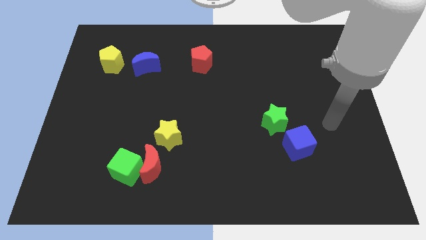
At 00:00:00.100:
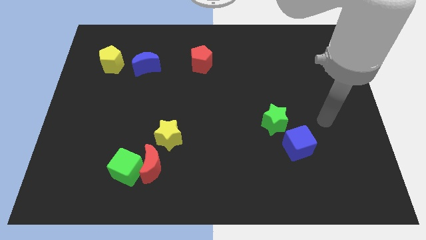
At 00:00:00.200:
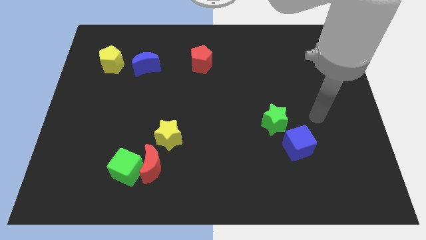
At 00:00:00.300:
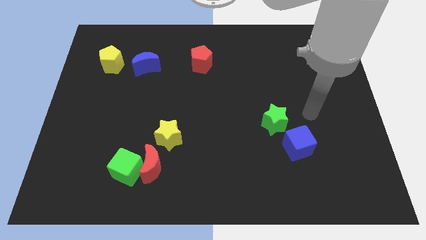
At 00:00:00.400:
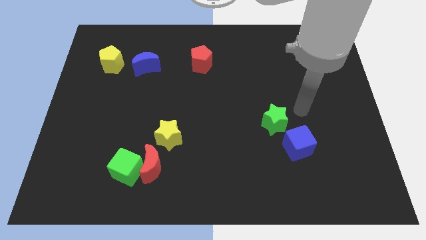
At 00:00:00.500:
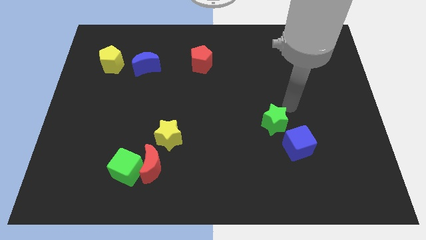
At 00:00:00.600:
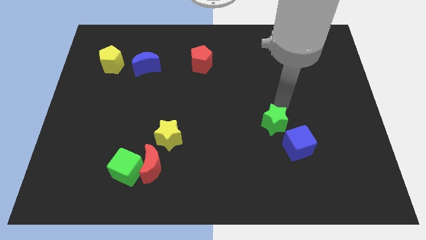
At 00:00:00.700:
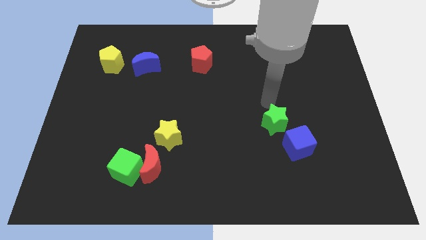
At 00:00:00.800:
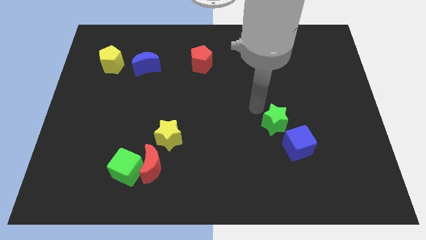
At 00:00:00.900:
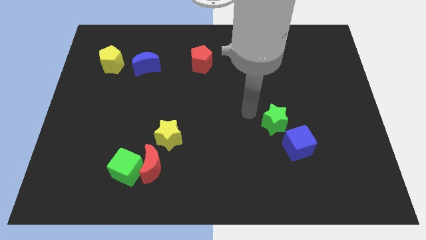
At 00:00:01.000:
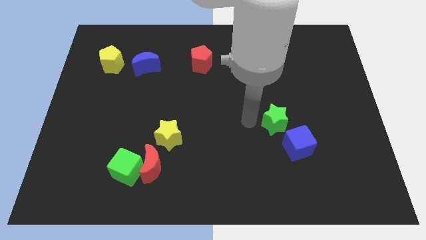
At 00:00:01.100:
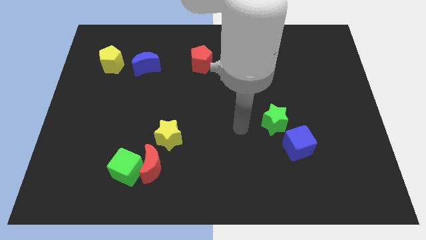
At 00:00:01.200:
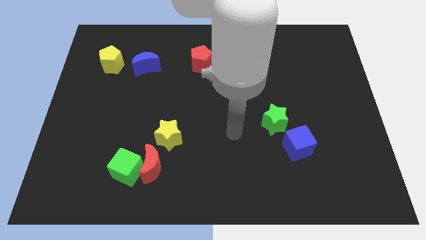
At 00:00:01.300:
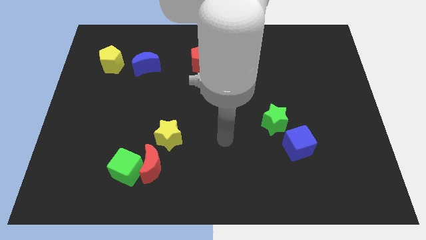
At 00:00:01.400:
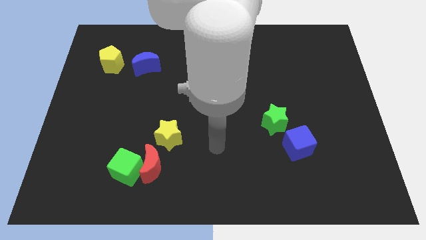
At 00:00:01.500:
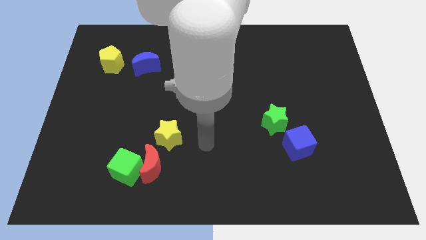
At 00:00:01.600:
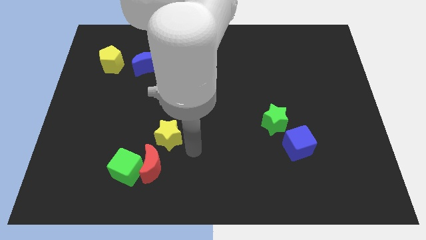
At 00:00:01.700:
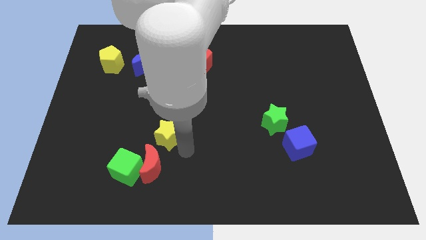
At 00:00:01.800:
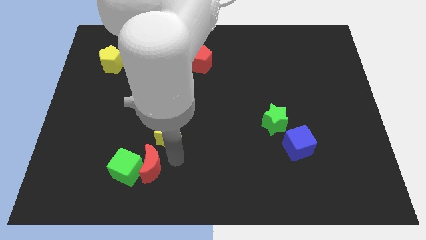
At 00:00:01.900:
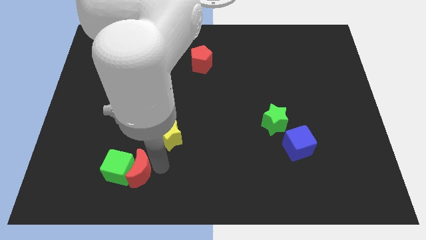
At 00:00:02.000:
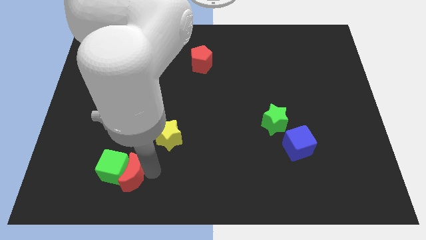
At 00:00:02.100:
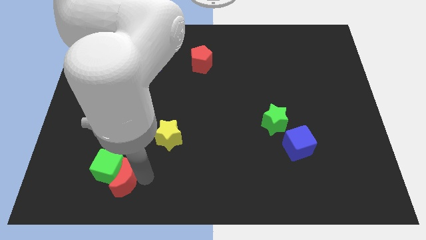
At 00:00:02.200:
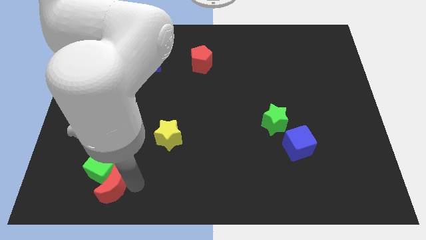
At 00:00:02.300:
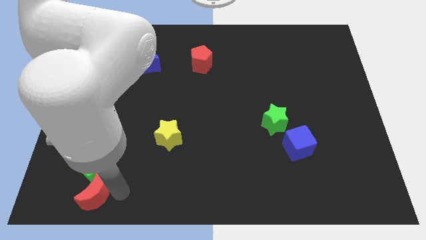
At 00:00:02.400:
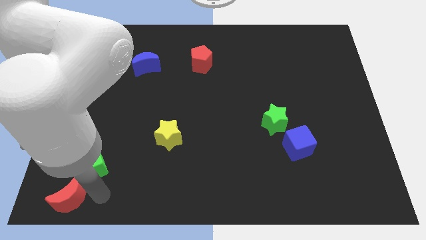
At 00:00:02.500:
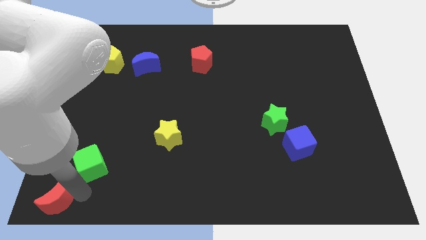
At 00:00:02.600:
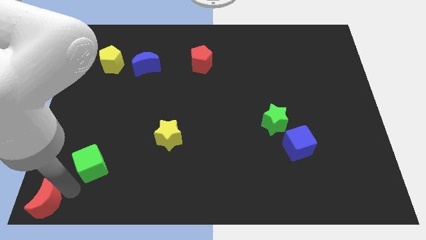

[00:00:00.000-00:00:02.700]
separate the green cube from the red moon

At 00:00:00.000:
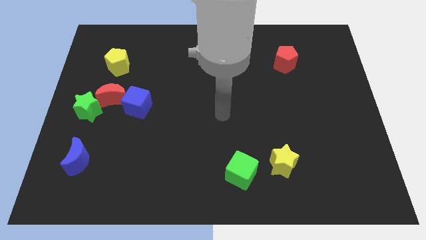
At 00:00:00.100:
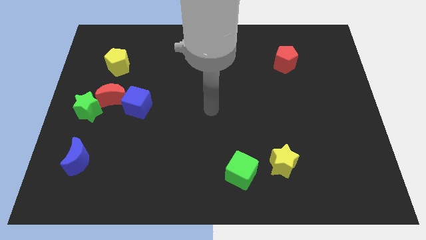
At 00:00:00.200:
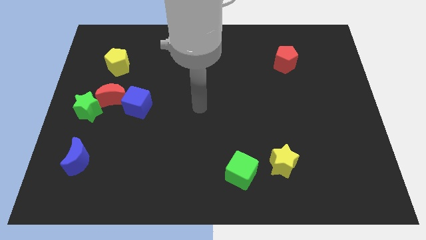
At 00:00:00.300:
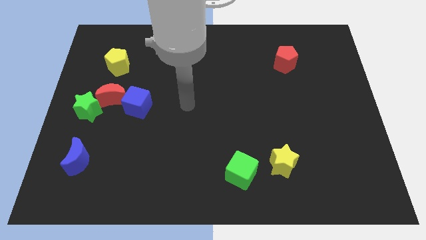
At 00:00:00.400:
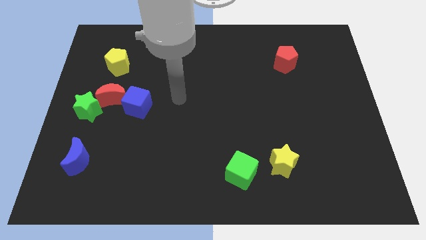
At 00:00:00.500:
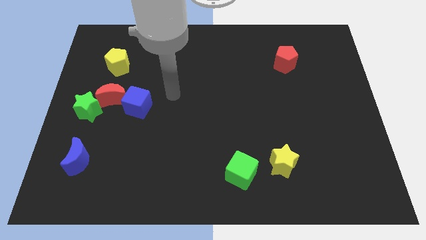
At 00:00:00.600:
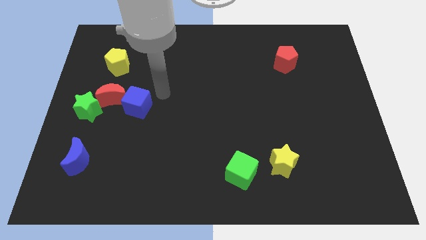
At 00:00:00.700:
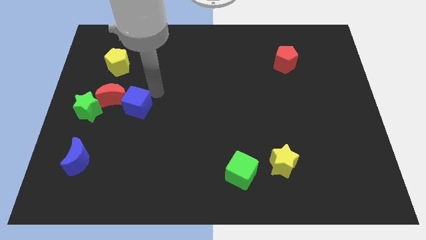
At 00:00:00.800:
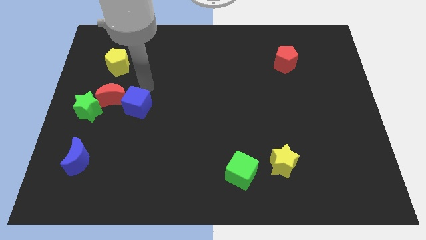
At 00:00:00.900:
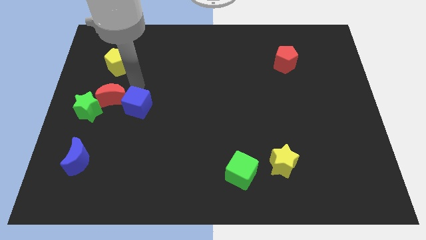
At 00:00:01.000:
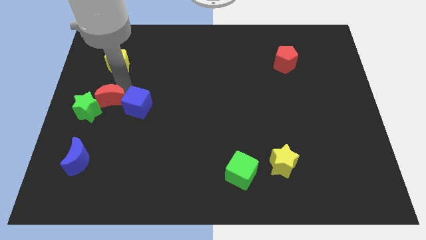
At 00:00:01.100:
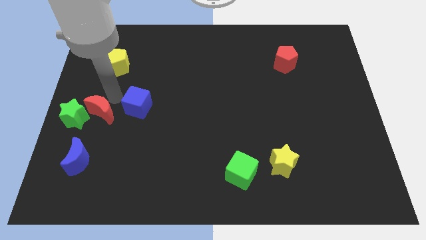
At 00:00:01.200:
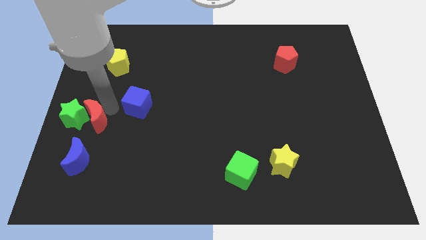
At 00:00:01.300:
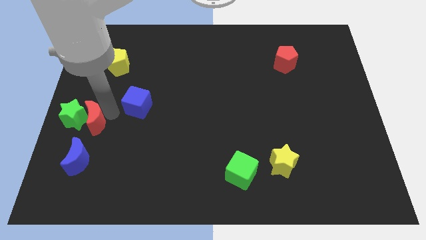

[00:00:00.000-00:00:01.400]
pull the blue cube apart from the red moon

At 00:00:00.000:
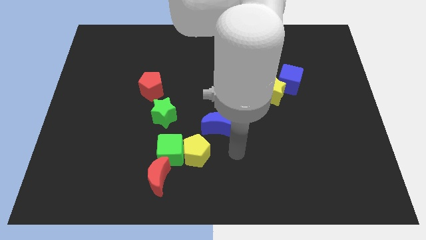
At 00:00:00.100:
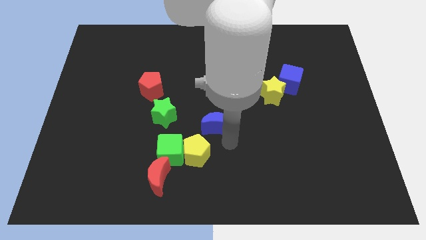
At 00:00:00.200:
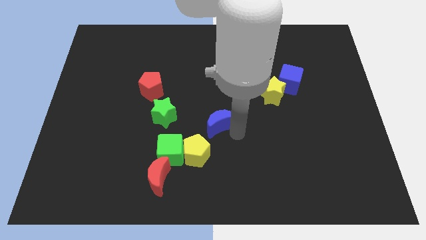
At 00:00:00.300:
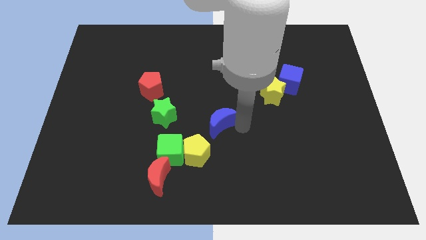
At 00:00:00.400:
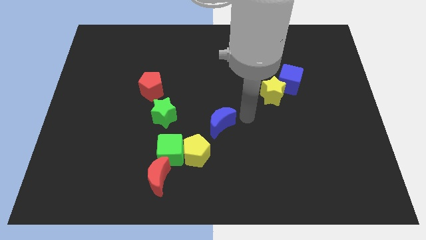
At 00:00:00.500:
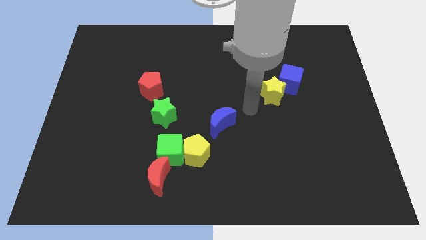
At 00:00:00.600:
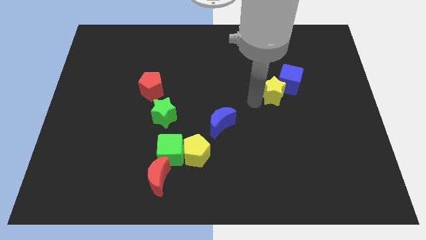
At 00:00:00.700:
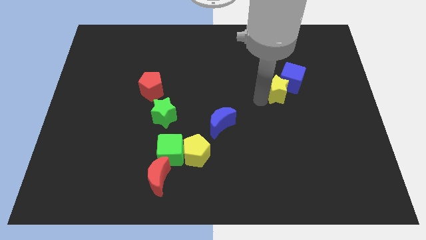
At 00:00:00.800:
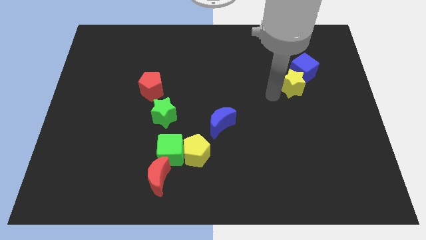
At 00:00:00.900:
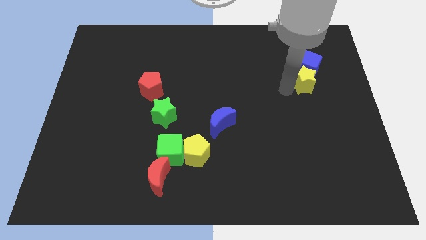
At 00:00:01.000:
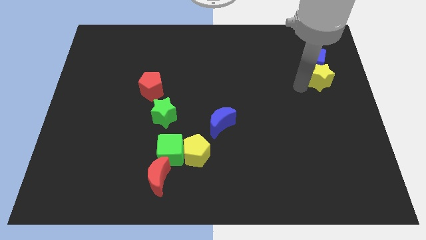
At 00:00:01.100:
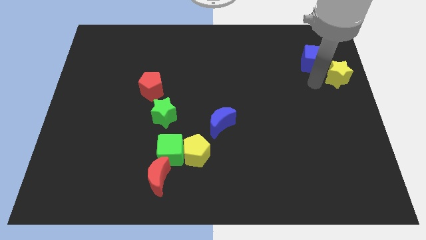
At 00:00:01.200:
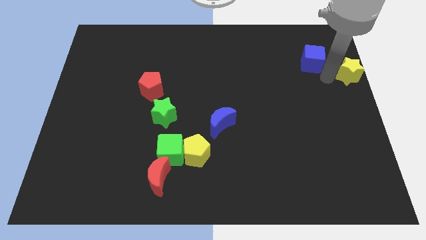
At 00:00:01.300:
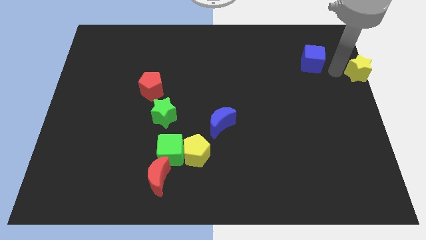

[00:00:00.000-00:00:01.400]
separate the blue cube from the yellow star

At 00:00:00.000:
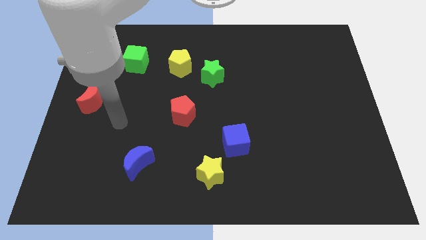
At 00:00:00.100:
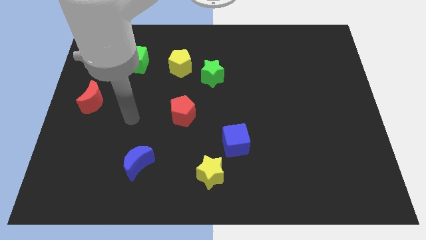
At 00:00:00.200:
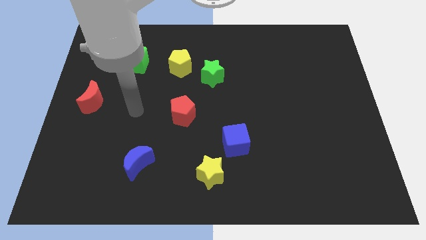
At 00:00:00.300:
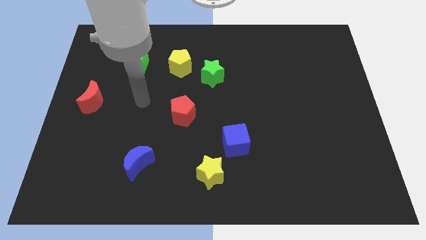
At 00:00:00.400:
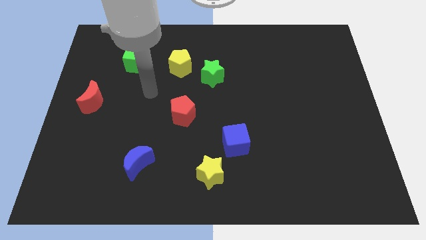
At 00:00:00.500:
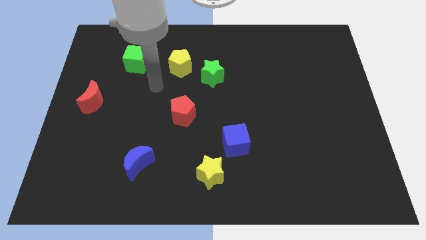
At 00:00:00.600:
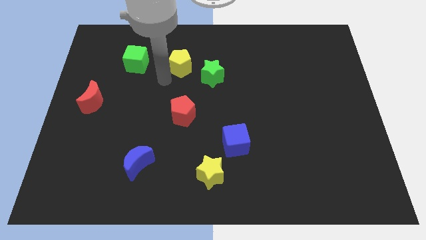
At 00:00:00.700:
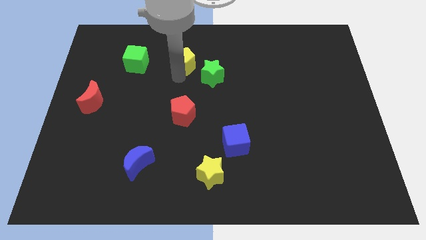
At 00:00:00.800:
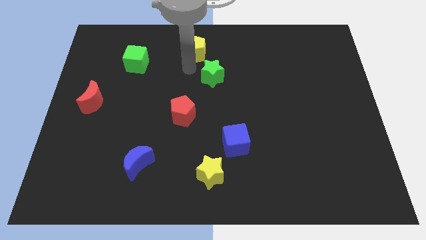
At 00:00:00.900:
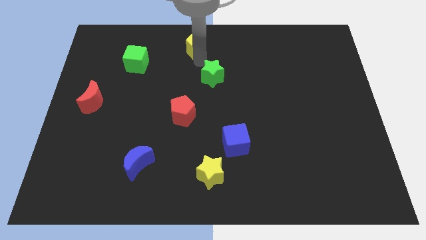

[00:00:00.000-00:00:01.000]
move the green star away from the yellow pentagon

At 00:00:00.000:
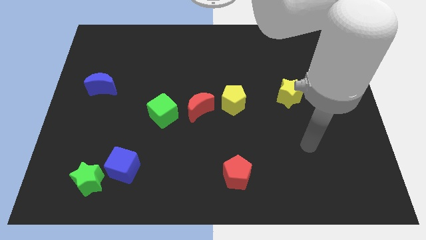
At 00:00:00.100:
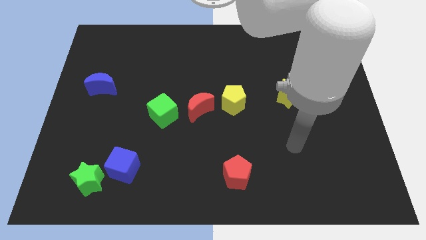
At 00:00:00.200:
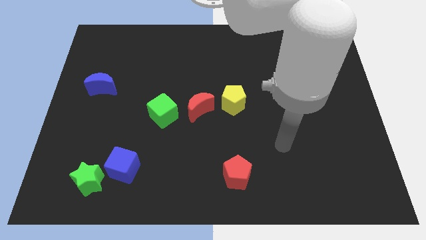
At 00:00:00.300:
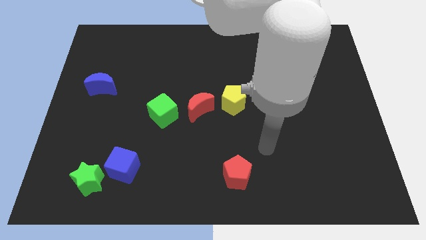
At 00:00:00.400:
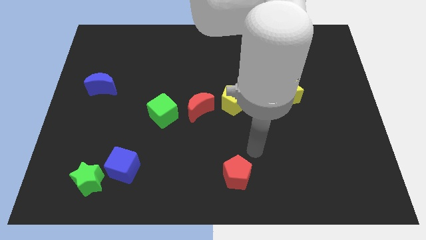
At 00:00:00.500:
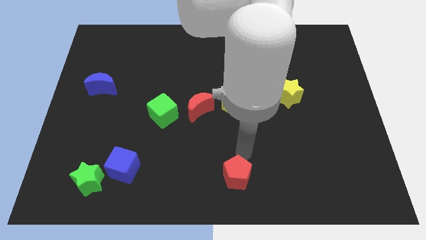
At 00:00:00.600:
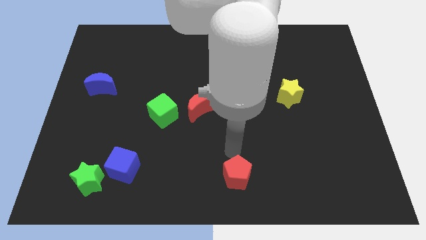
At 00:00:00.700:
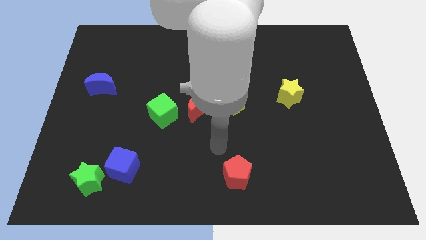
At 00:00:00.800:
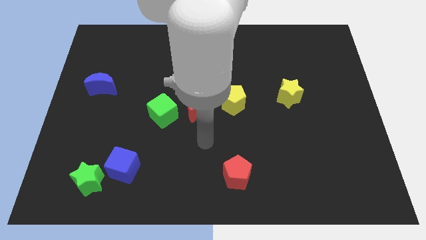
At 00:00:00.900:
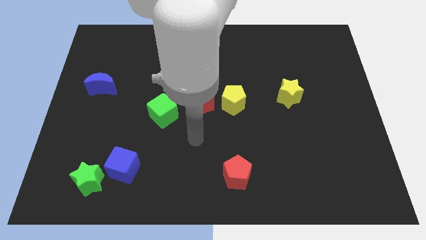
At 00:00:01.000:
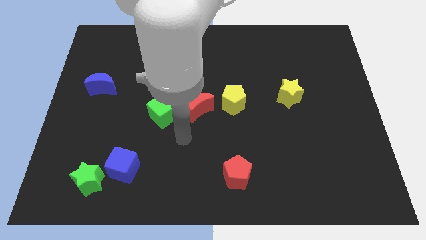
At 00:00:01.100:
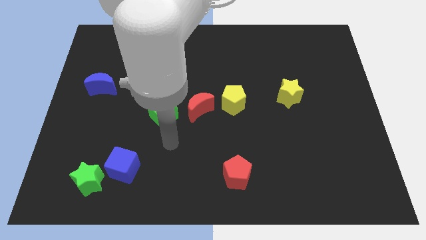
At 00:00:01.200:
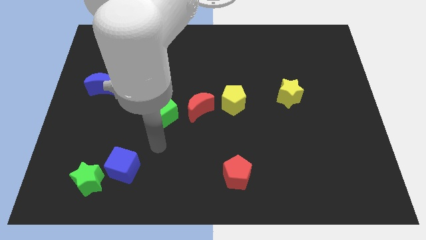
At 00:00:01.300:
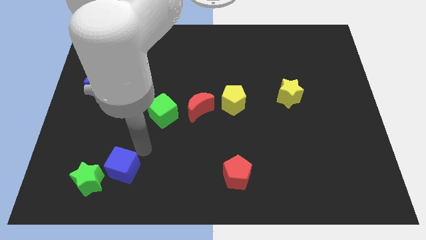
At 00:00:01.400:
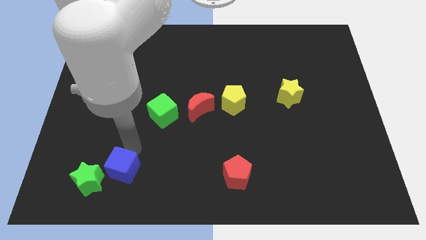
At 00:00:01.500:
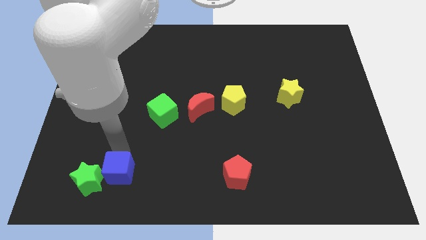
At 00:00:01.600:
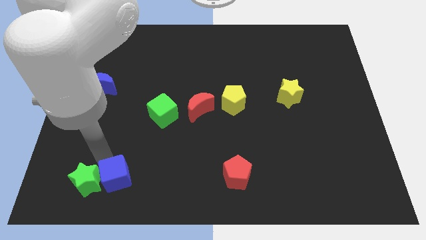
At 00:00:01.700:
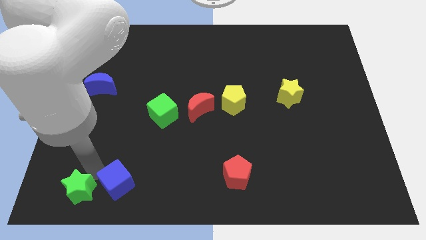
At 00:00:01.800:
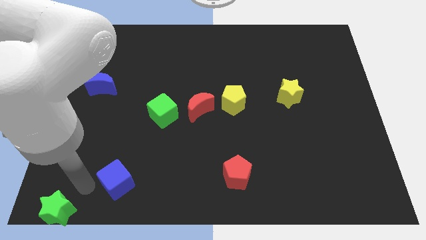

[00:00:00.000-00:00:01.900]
move the blue cube away from the green star

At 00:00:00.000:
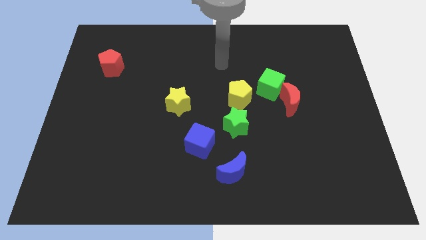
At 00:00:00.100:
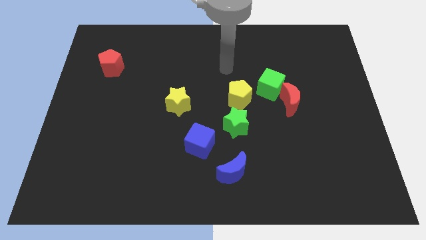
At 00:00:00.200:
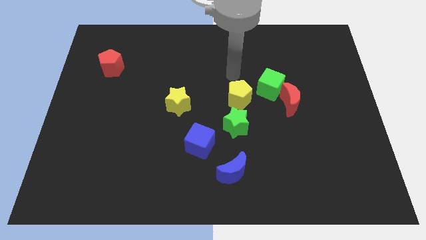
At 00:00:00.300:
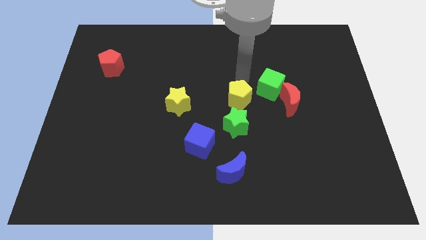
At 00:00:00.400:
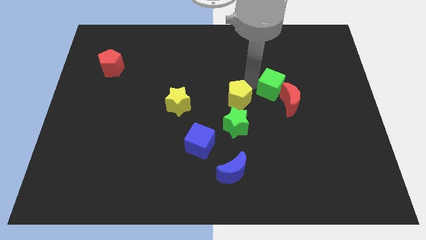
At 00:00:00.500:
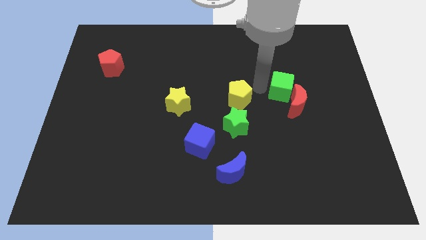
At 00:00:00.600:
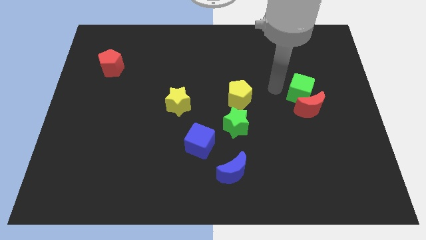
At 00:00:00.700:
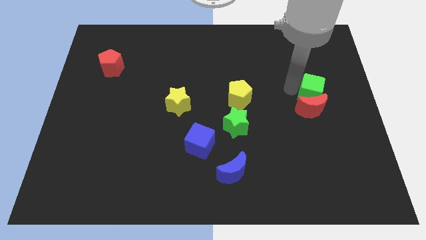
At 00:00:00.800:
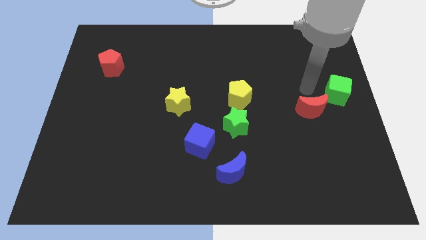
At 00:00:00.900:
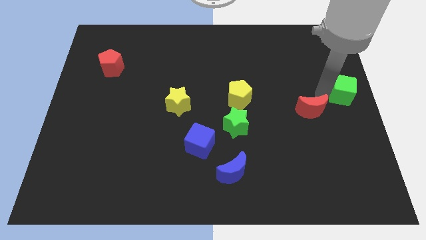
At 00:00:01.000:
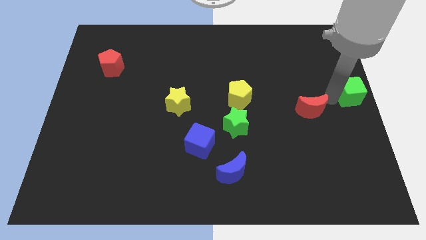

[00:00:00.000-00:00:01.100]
pull the red moon apart from the green cube
